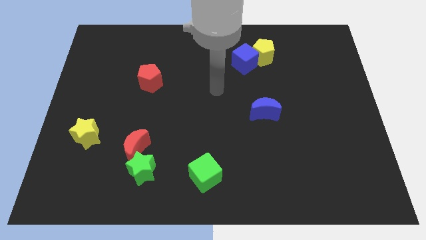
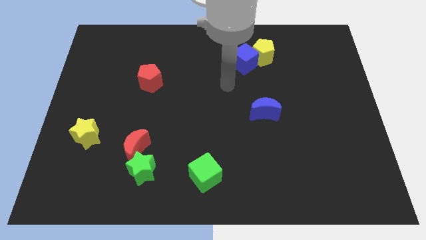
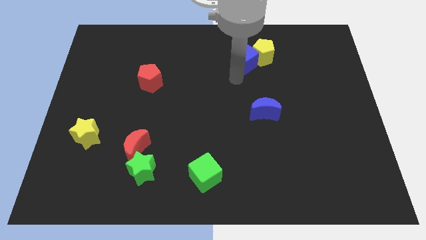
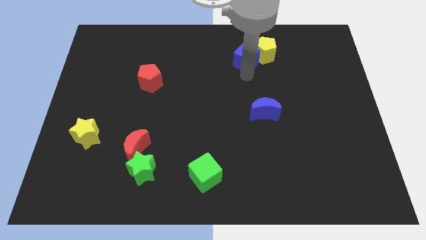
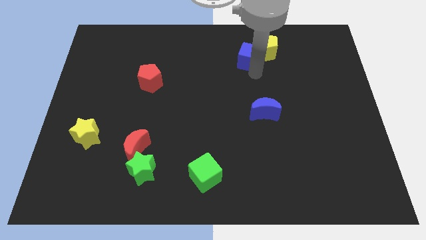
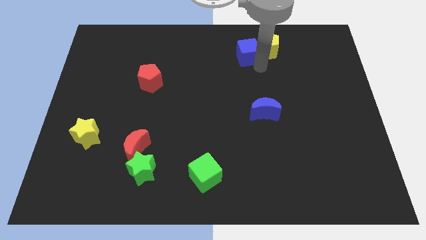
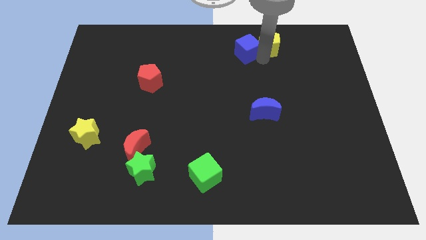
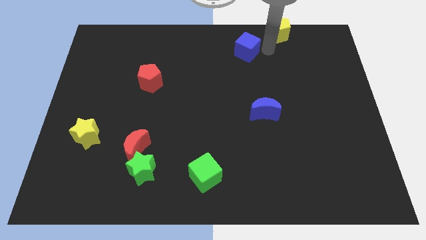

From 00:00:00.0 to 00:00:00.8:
separate the blue cube from the yellow pentagon

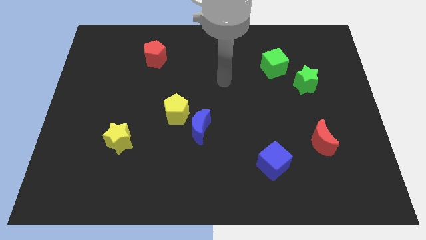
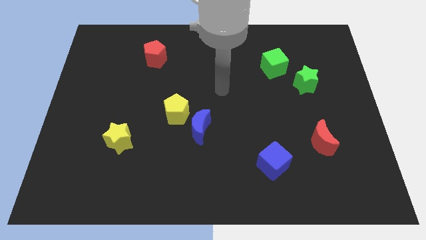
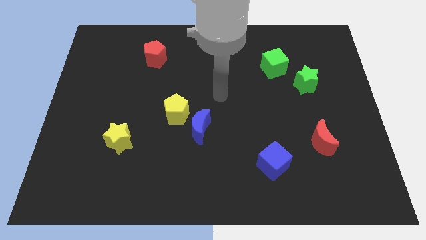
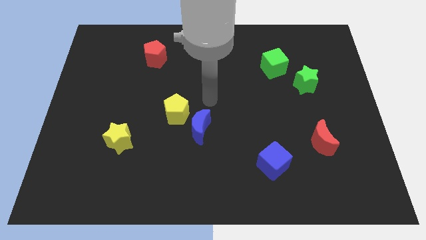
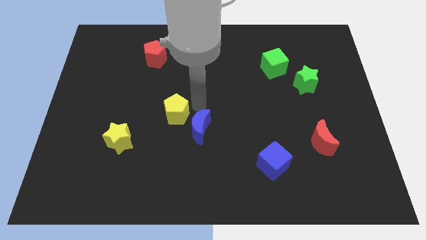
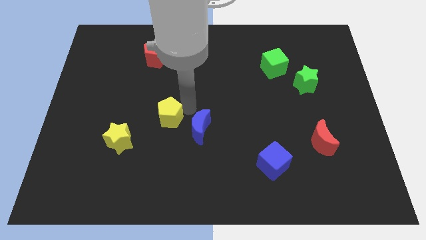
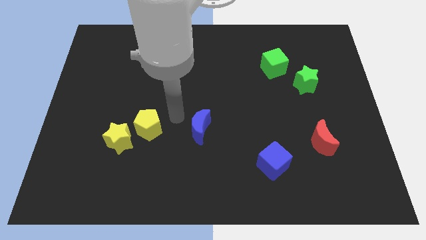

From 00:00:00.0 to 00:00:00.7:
pull the blue moon apart from the yellow pentagon

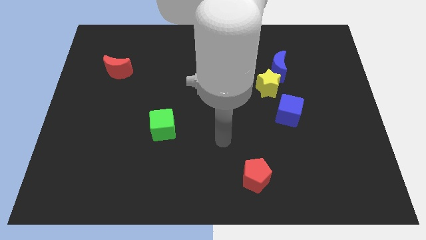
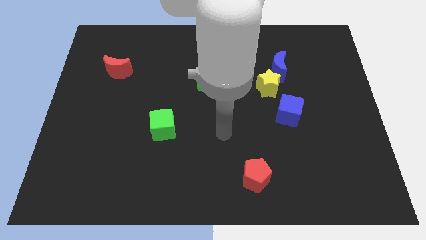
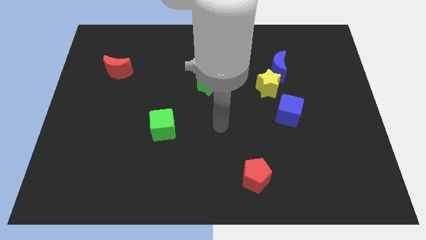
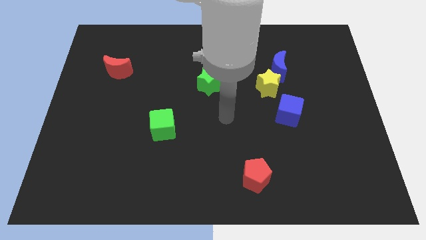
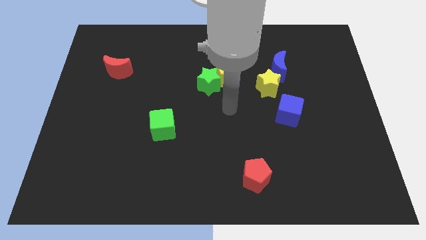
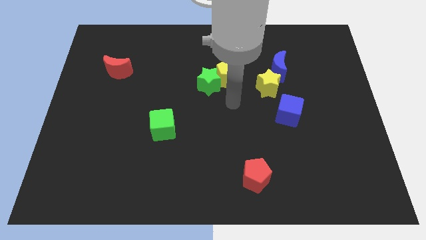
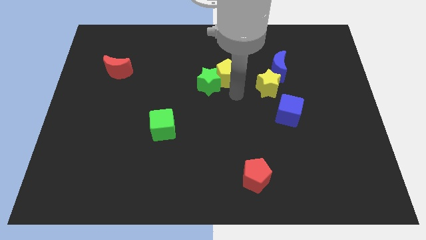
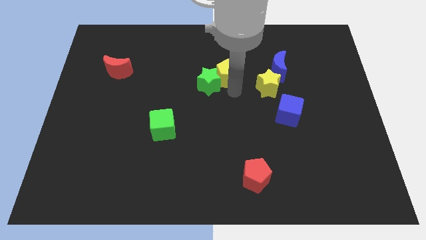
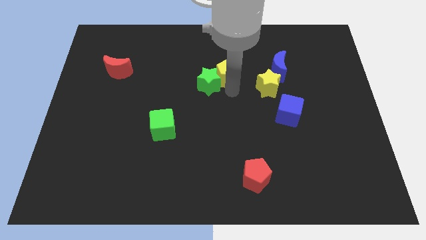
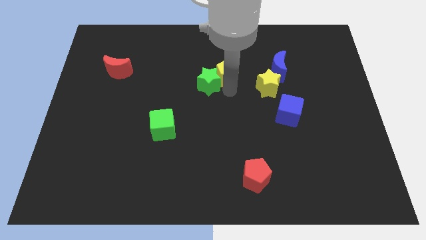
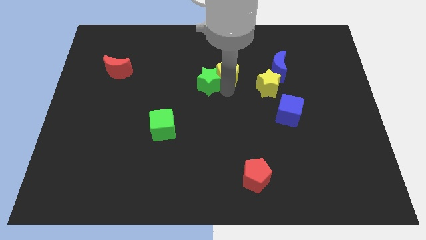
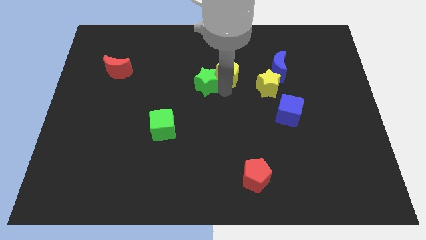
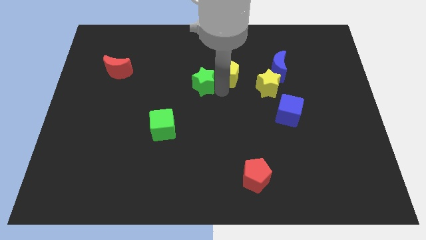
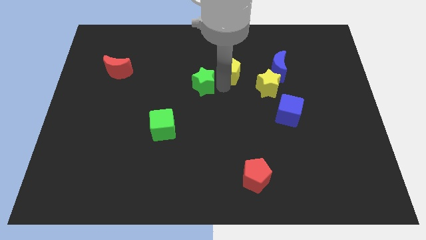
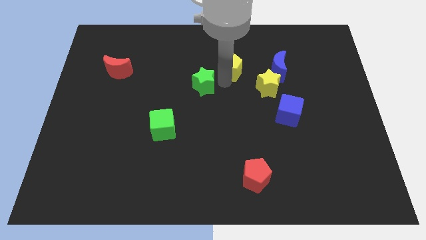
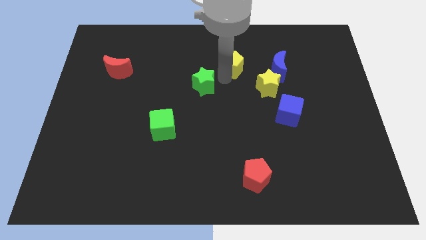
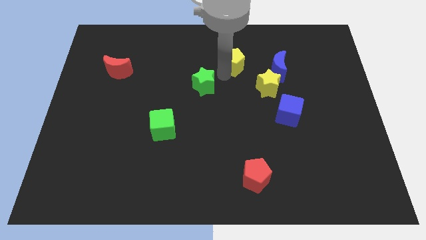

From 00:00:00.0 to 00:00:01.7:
pull the green star apart from the yellow pentagon

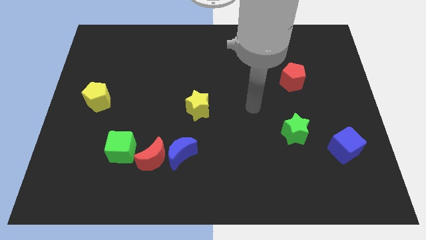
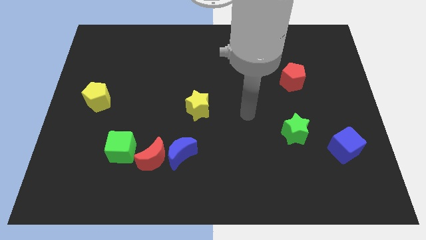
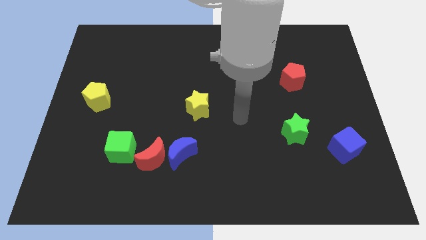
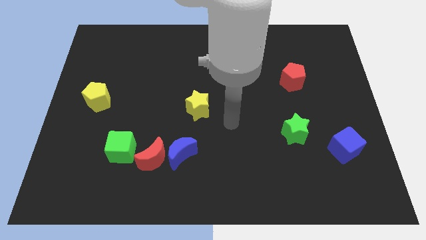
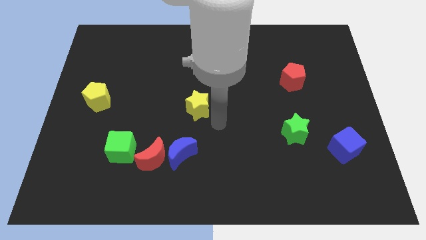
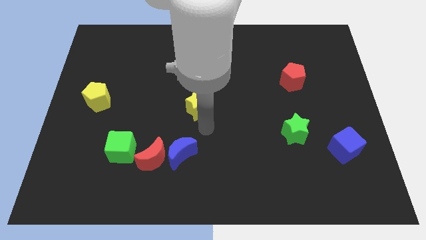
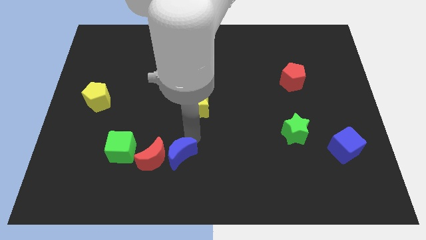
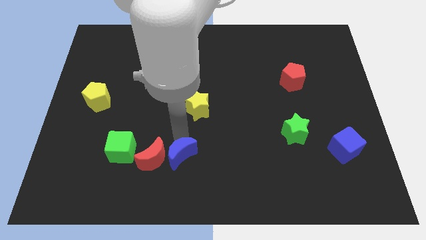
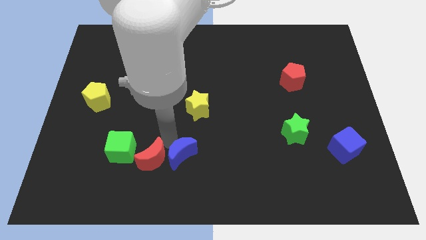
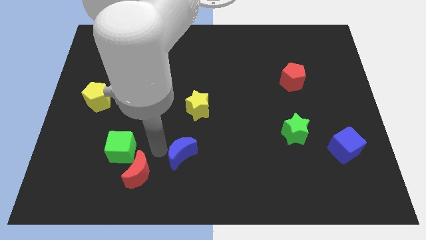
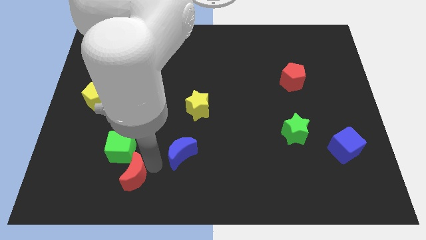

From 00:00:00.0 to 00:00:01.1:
separate the blue moon from the red moon

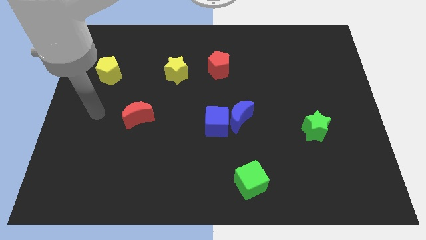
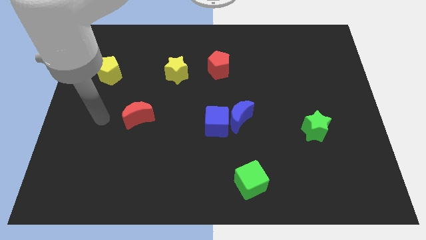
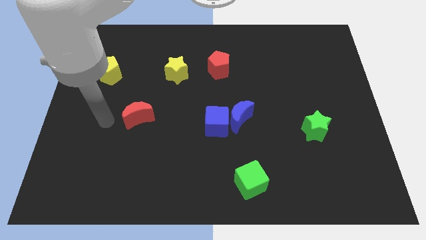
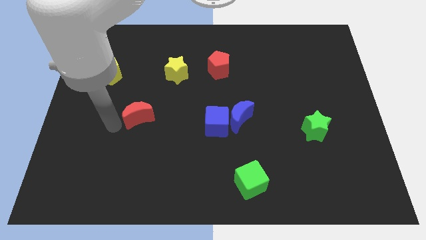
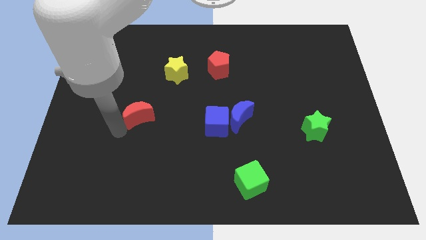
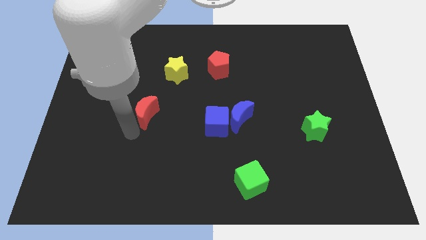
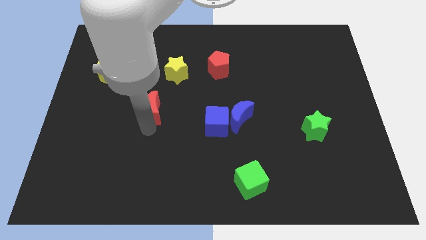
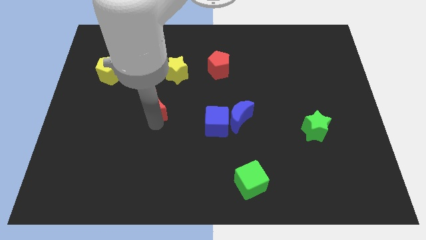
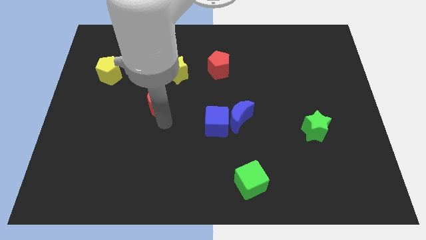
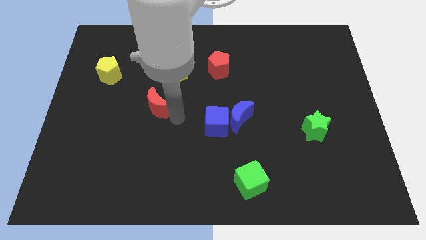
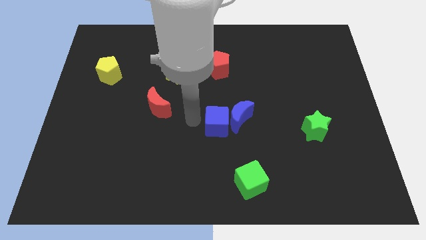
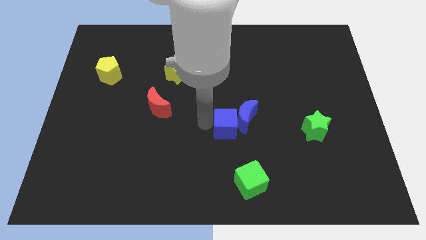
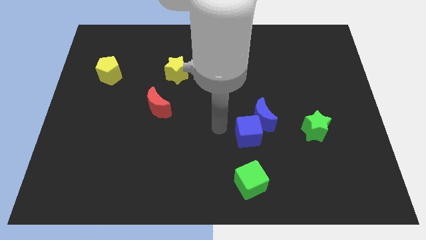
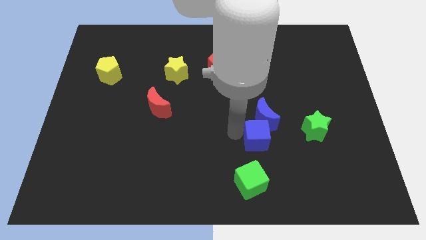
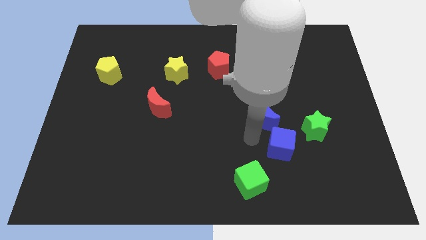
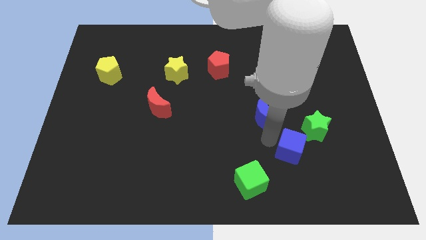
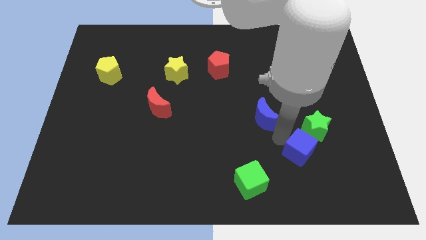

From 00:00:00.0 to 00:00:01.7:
move the blue moon away from the blue cube

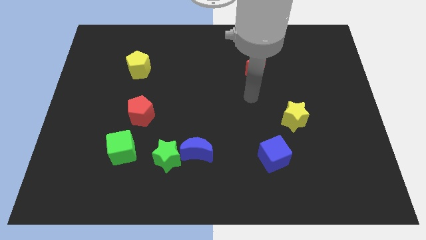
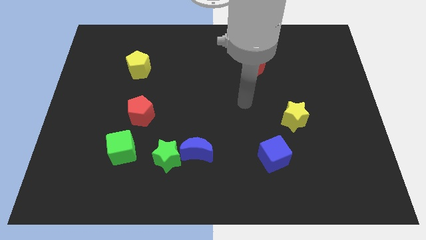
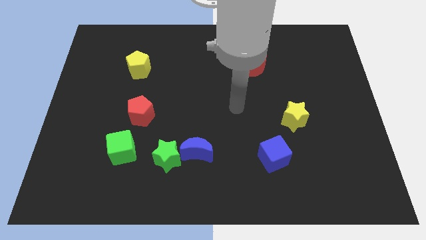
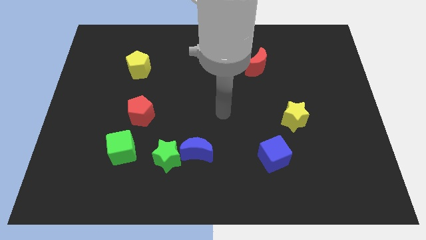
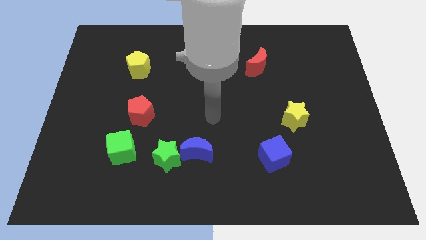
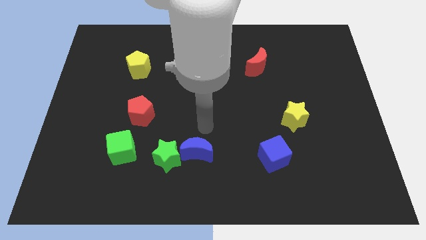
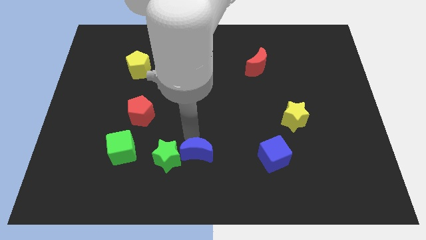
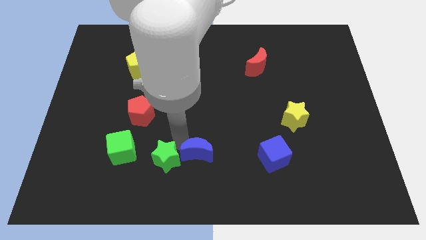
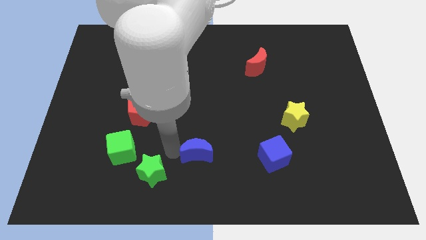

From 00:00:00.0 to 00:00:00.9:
pull the blue moon apart from the green star

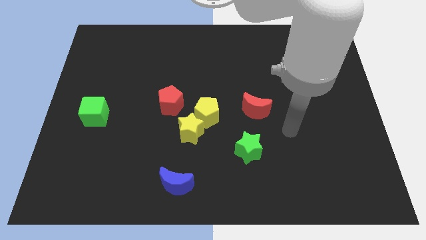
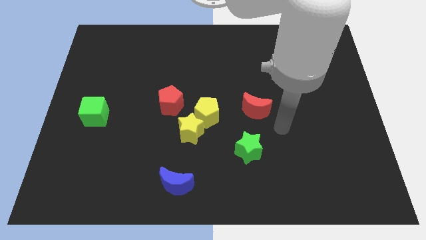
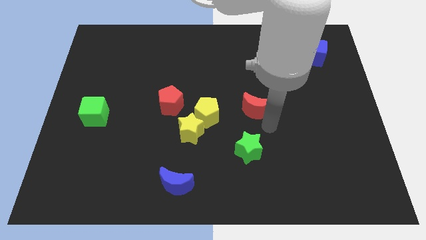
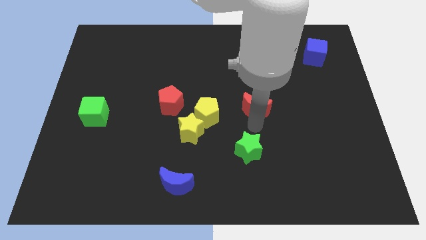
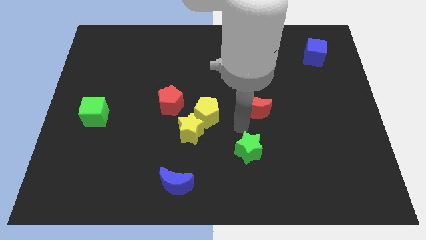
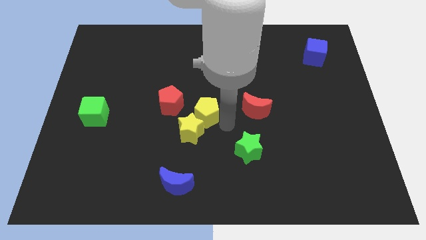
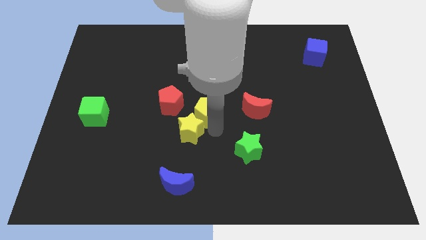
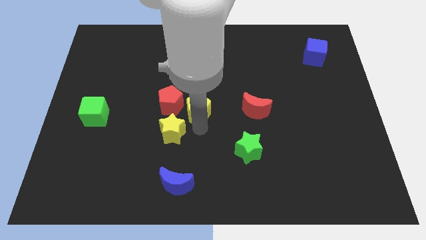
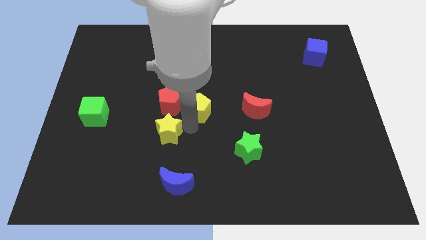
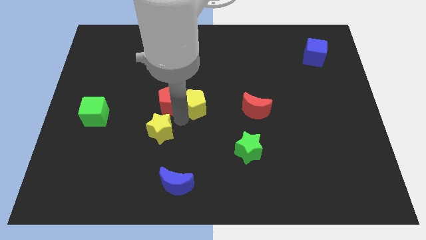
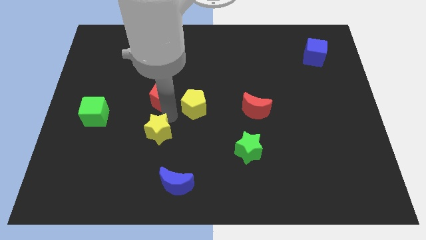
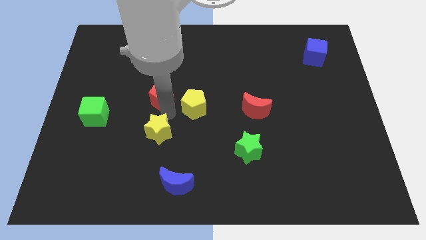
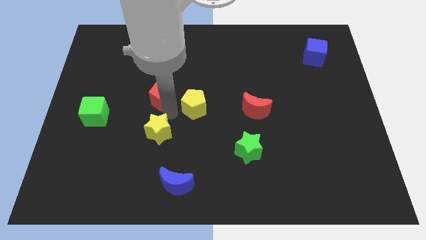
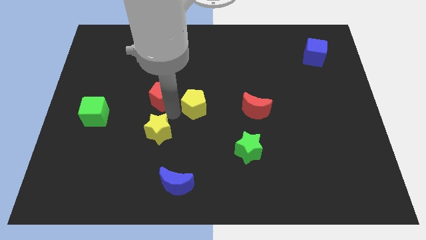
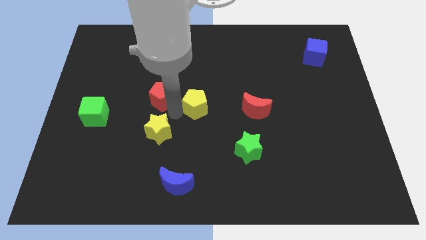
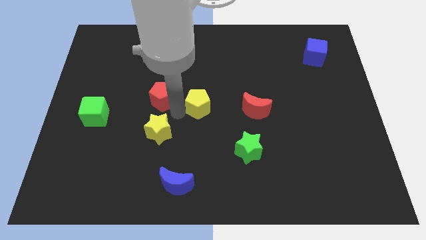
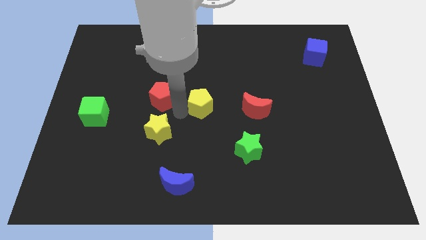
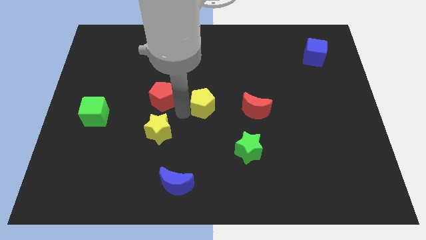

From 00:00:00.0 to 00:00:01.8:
pull the yellow pentagon apart from the yellow star and red pentagon

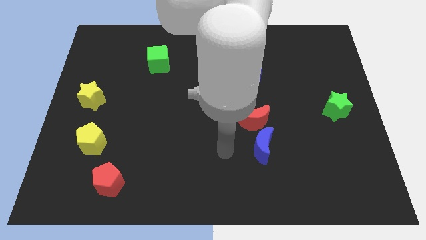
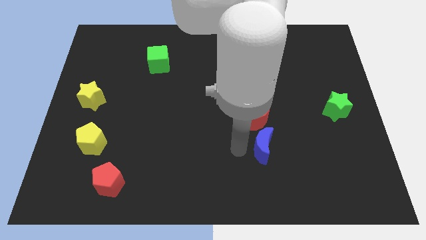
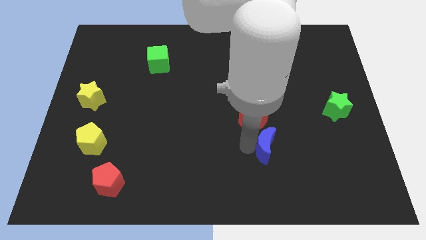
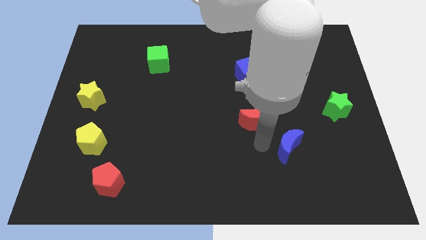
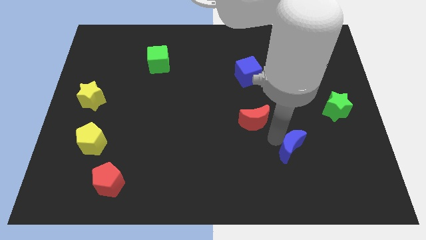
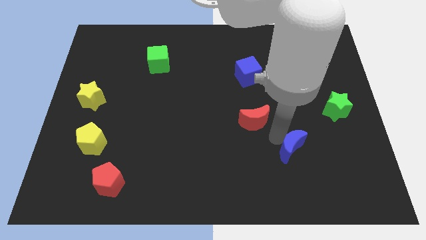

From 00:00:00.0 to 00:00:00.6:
separate the red moon from the blue moon

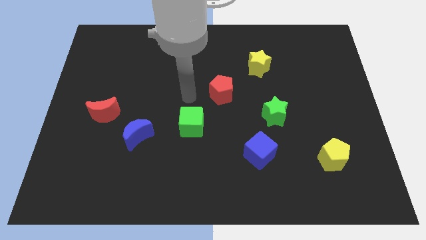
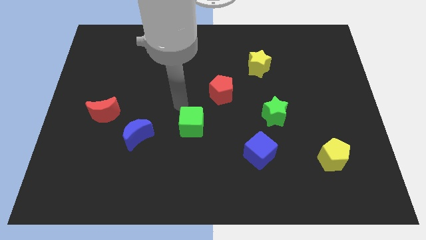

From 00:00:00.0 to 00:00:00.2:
pull the red moon apart from the blue moon
